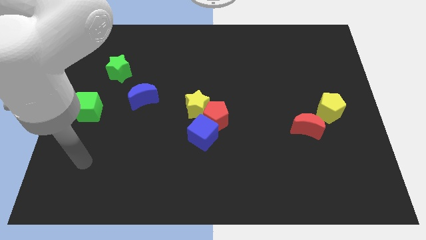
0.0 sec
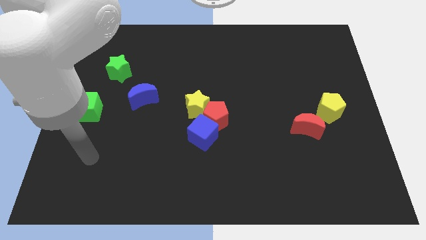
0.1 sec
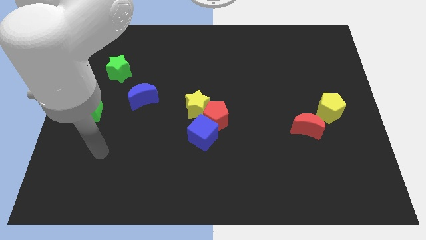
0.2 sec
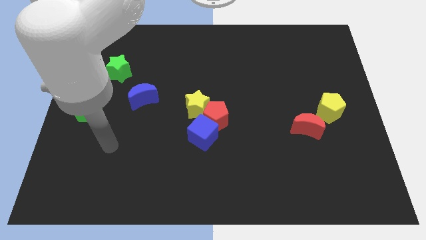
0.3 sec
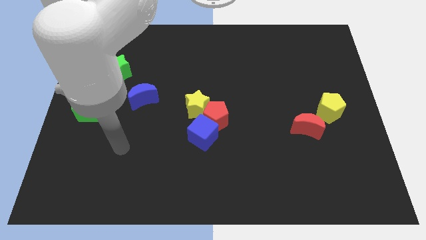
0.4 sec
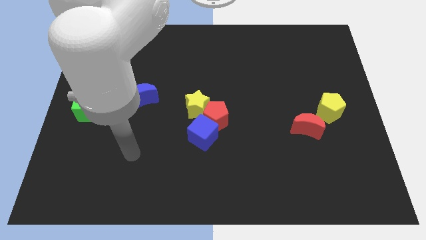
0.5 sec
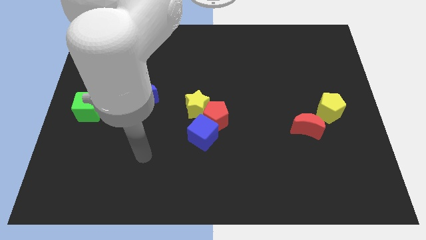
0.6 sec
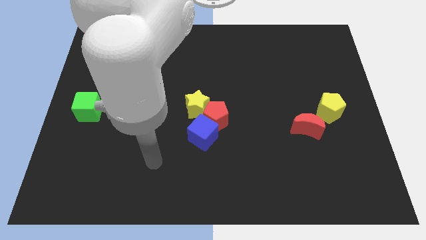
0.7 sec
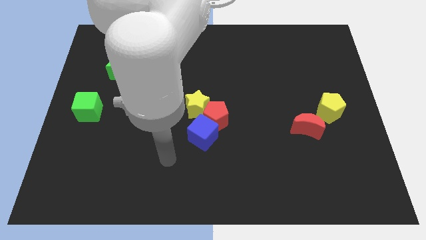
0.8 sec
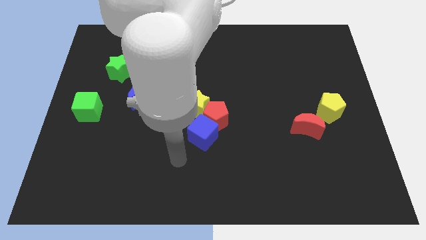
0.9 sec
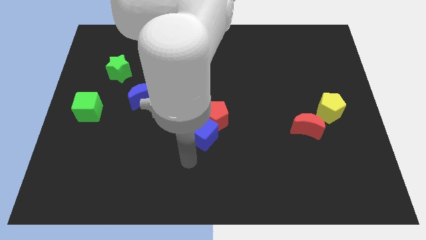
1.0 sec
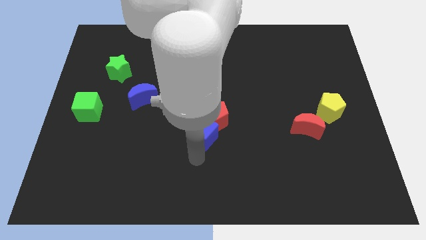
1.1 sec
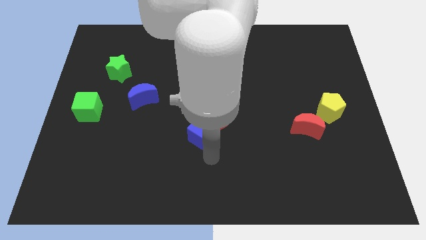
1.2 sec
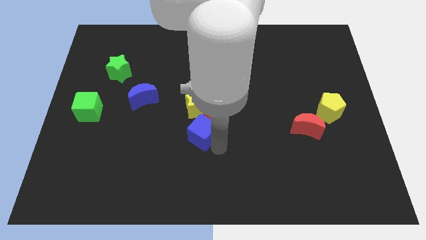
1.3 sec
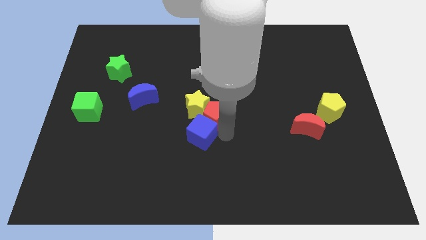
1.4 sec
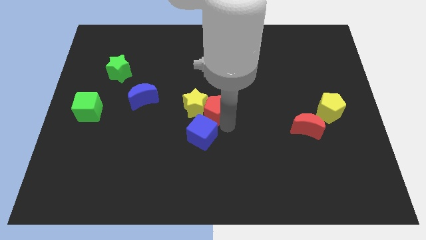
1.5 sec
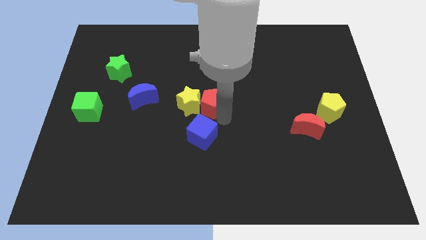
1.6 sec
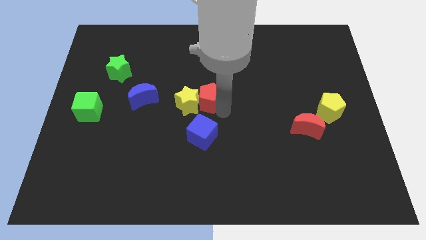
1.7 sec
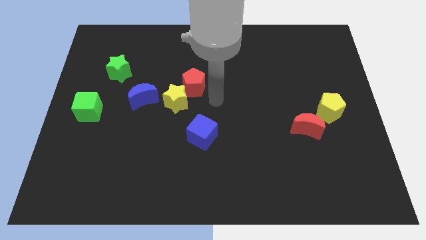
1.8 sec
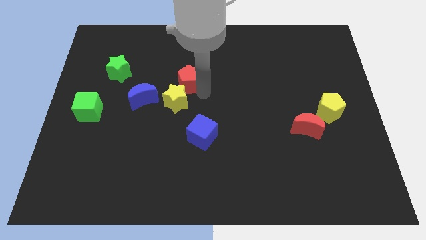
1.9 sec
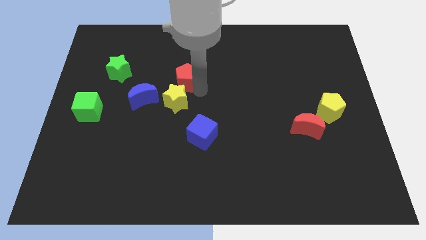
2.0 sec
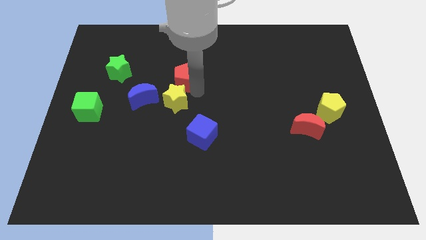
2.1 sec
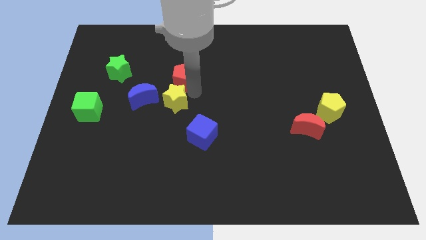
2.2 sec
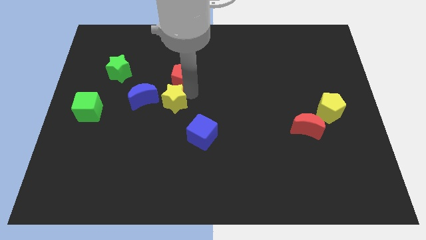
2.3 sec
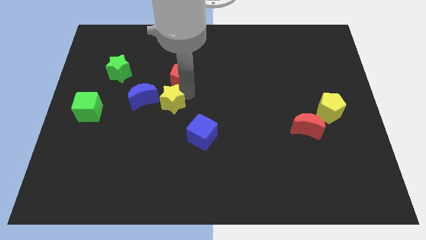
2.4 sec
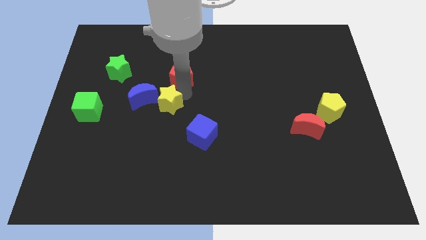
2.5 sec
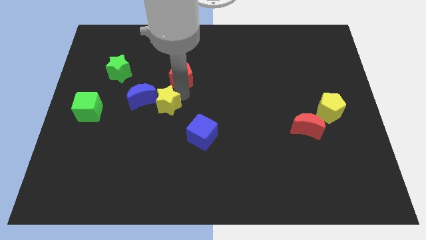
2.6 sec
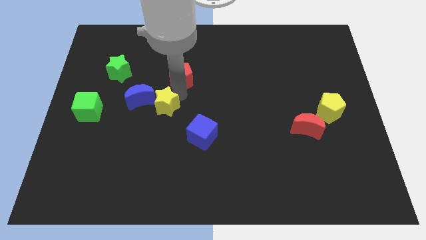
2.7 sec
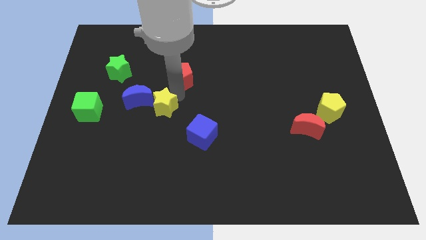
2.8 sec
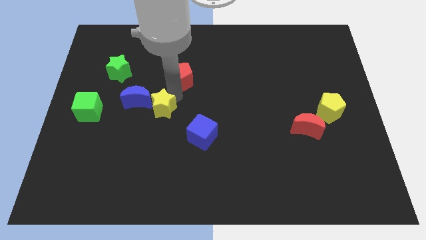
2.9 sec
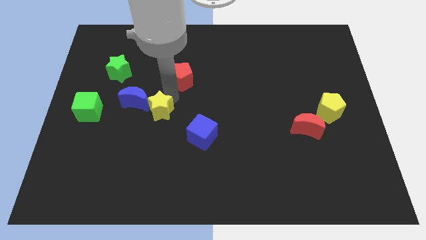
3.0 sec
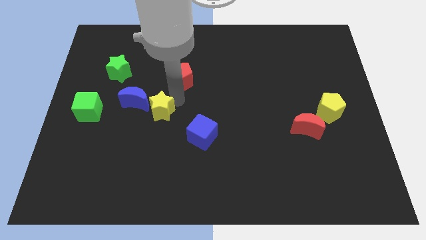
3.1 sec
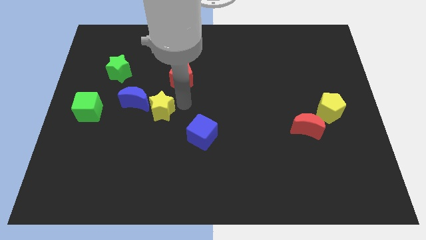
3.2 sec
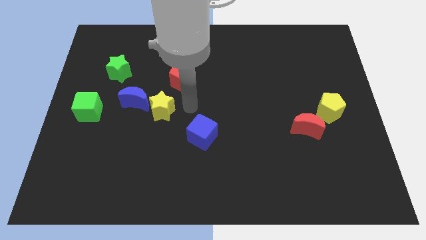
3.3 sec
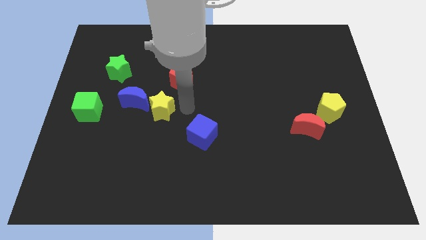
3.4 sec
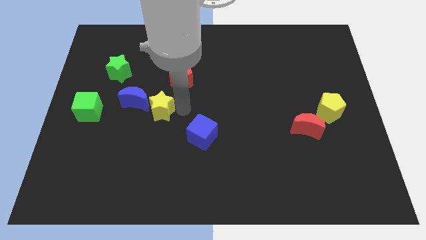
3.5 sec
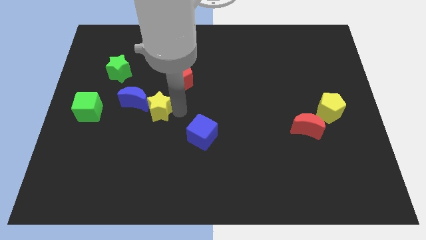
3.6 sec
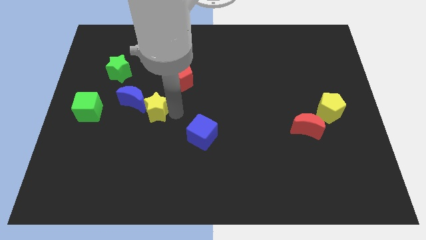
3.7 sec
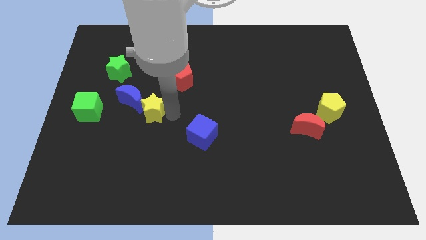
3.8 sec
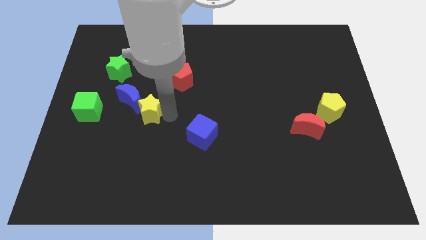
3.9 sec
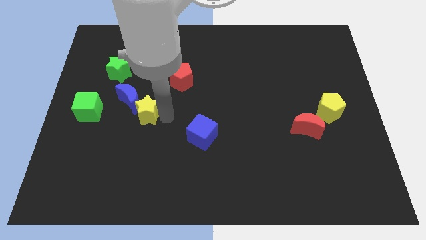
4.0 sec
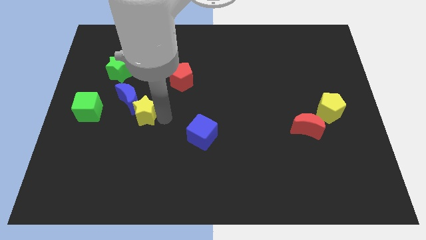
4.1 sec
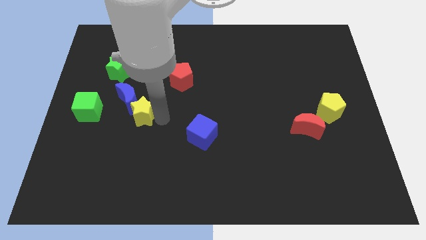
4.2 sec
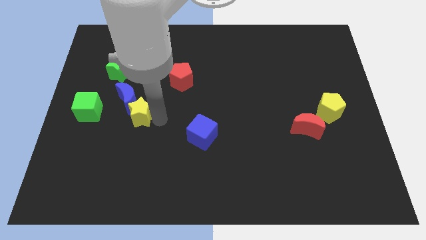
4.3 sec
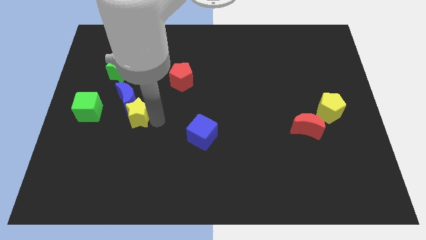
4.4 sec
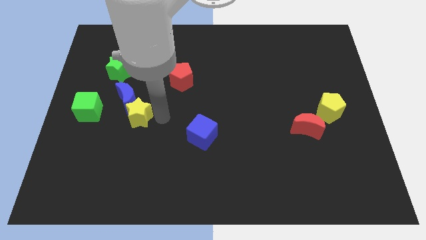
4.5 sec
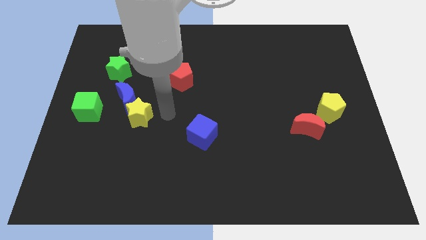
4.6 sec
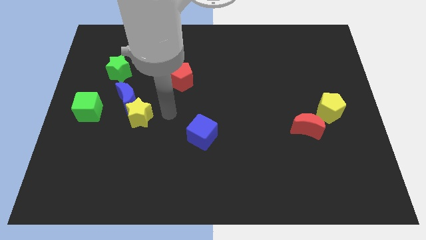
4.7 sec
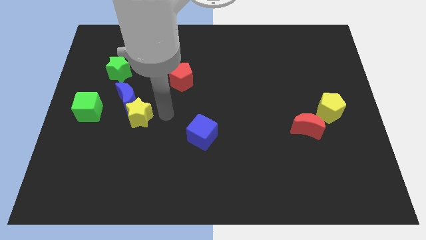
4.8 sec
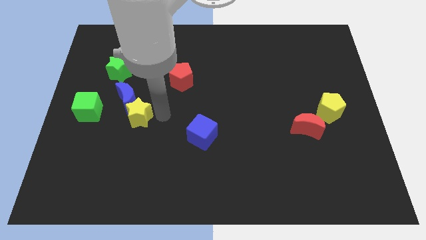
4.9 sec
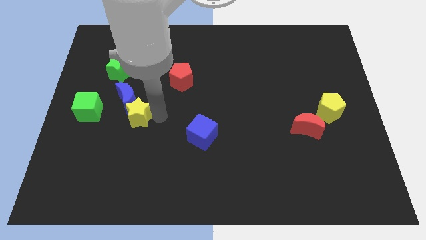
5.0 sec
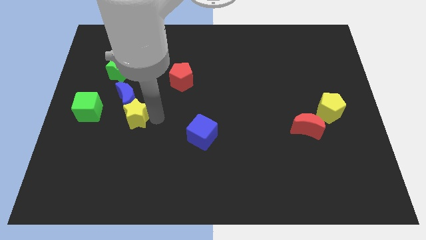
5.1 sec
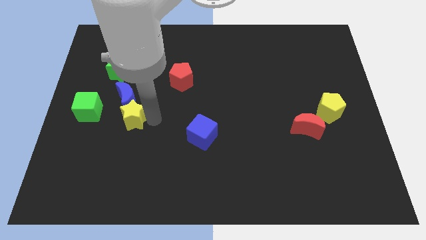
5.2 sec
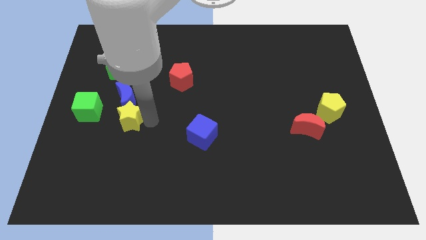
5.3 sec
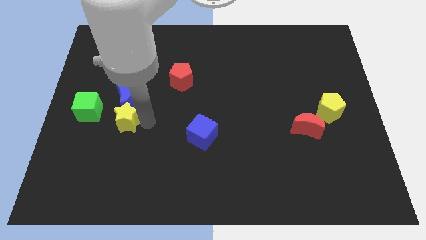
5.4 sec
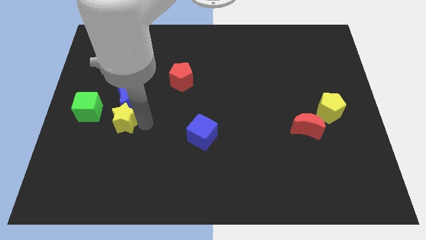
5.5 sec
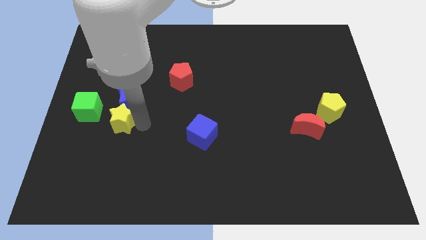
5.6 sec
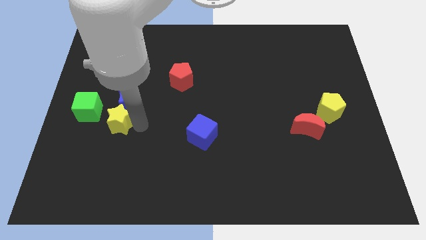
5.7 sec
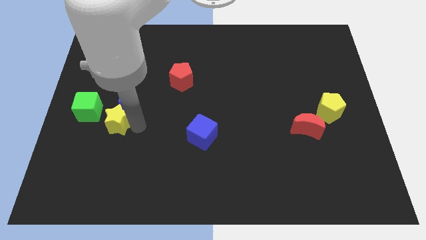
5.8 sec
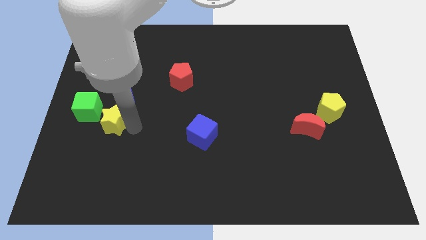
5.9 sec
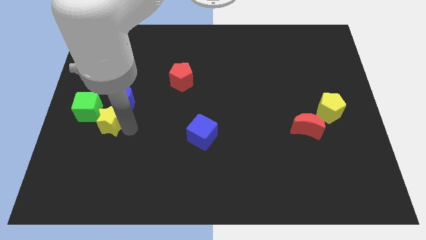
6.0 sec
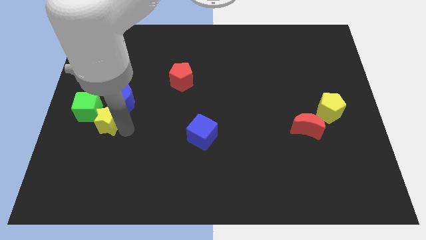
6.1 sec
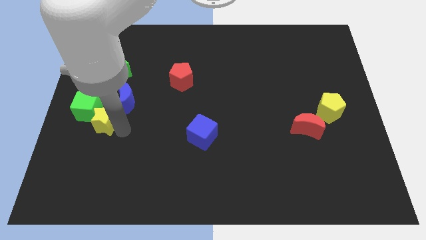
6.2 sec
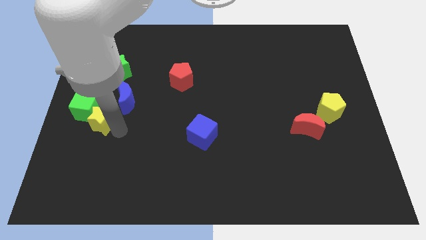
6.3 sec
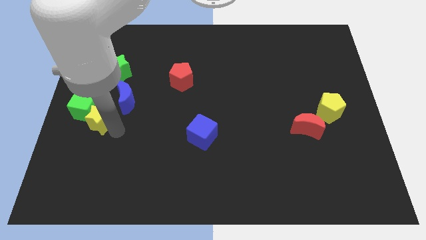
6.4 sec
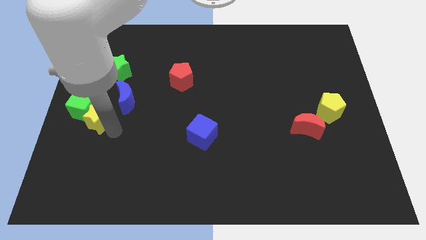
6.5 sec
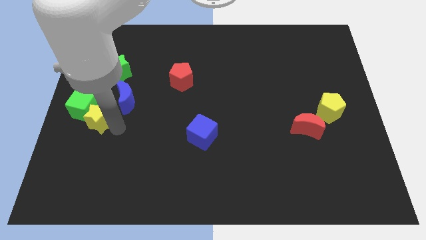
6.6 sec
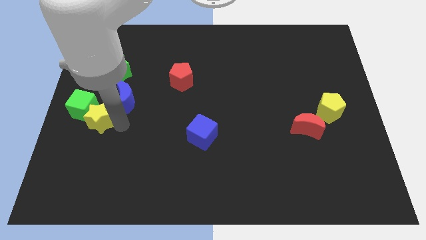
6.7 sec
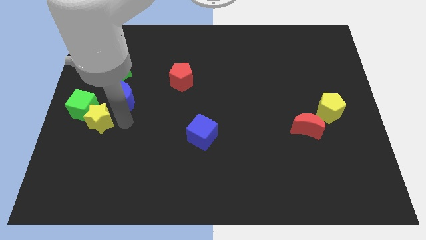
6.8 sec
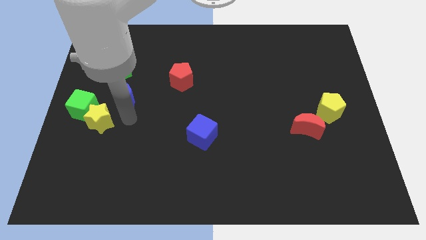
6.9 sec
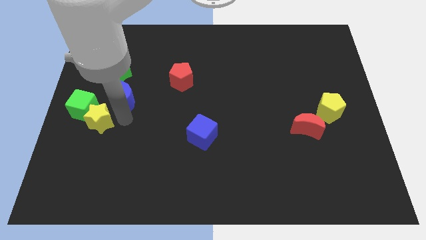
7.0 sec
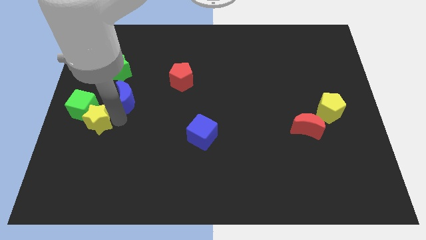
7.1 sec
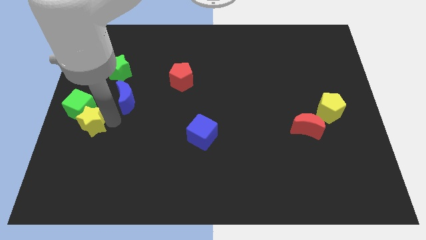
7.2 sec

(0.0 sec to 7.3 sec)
slide the yellow star to the left side of the board

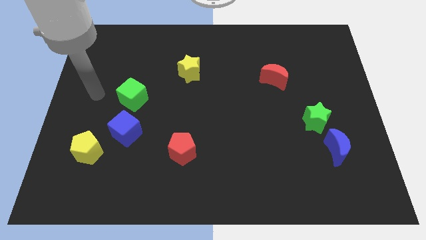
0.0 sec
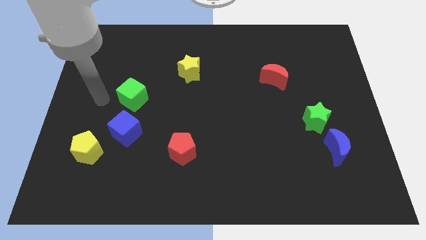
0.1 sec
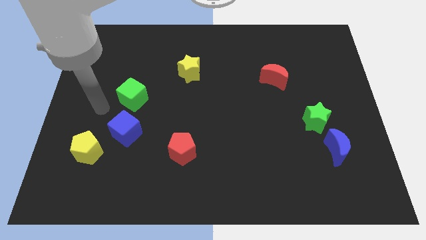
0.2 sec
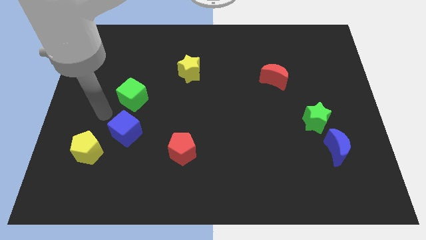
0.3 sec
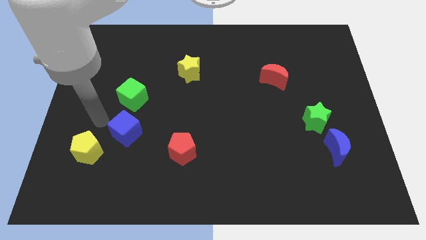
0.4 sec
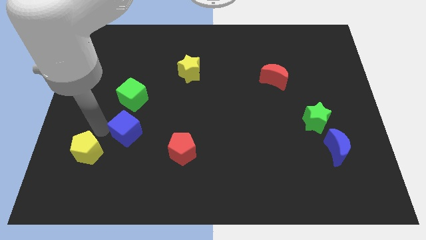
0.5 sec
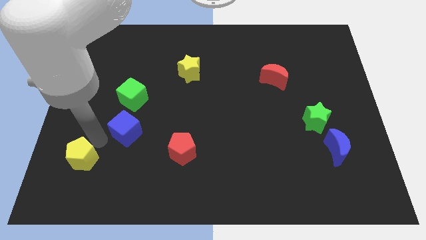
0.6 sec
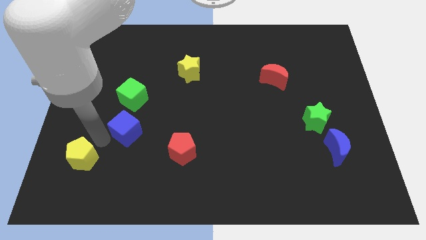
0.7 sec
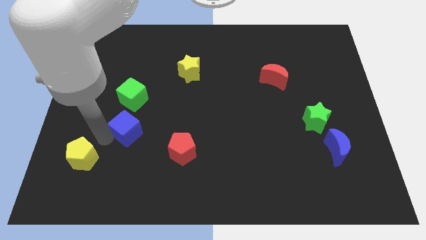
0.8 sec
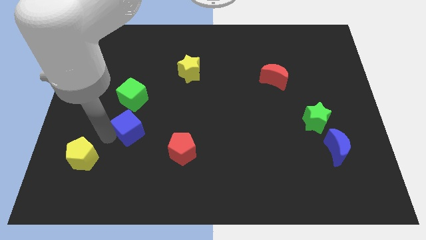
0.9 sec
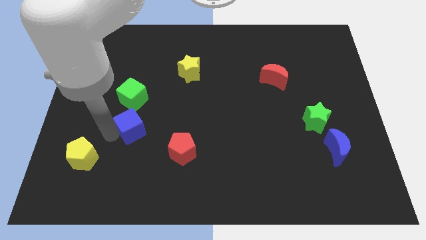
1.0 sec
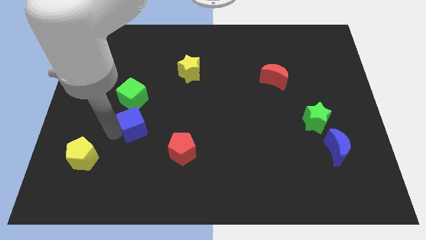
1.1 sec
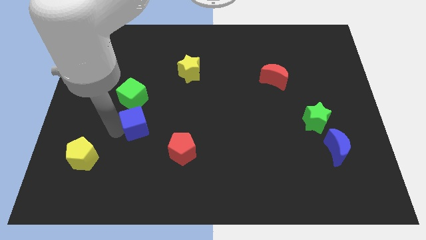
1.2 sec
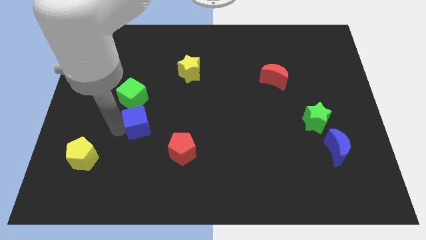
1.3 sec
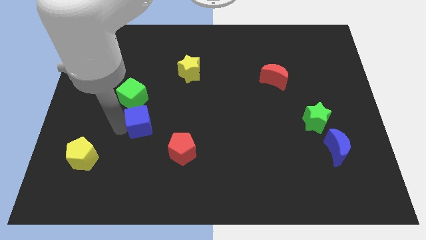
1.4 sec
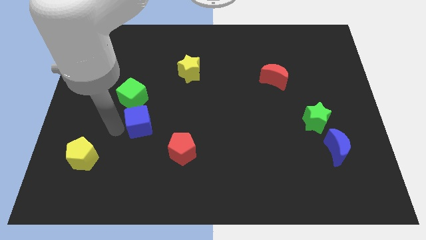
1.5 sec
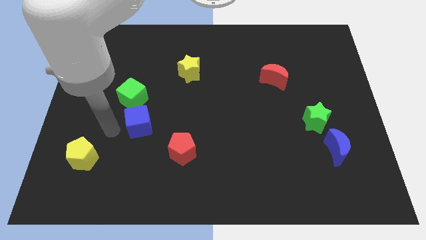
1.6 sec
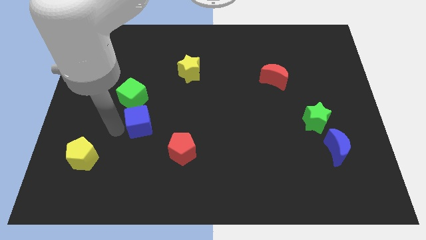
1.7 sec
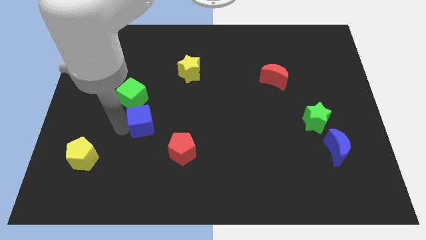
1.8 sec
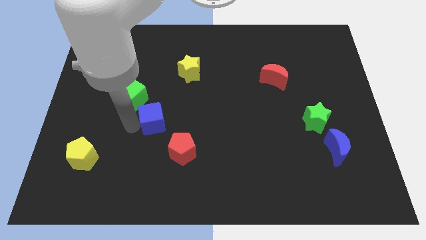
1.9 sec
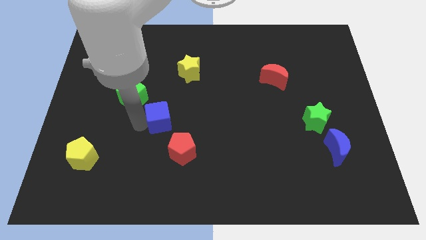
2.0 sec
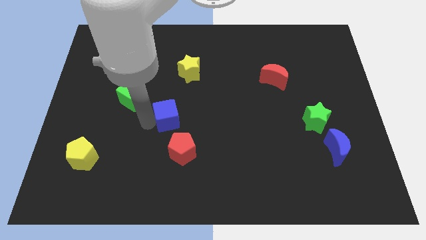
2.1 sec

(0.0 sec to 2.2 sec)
put the blue cube to the middle of the board
